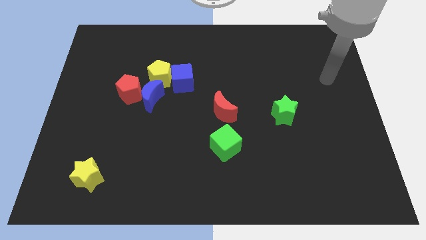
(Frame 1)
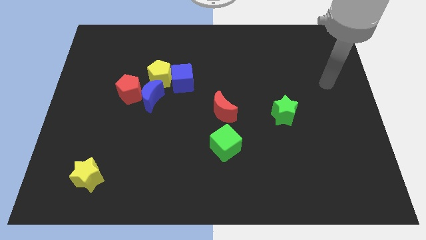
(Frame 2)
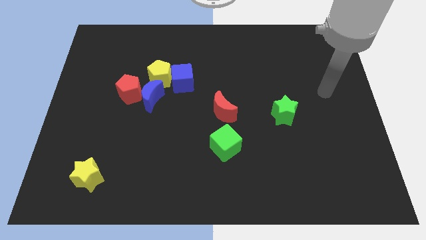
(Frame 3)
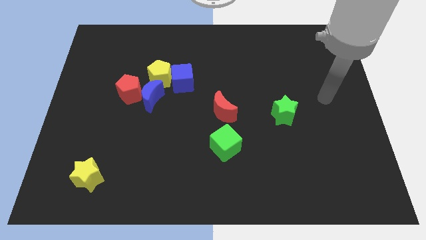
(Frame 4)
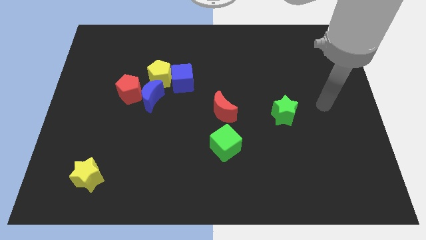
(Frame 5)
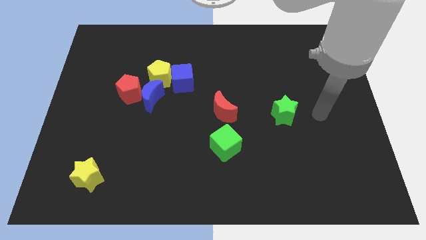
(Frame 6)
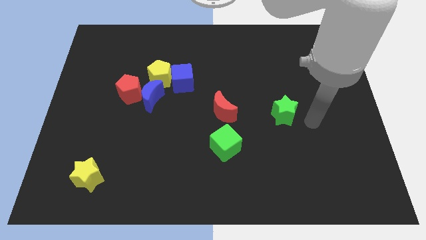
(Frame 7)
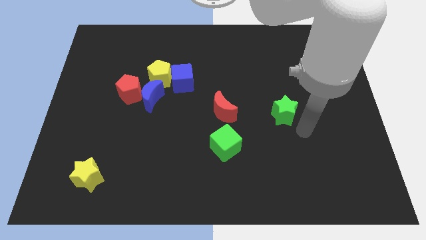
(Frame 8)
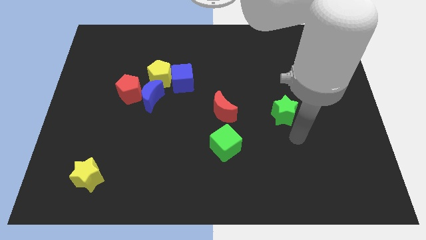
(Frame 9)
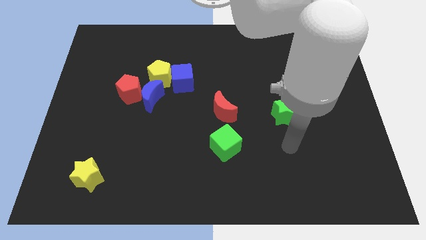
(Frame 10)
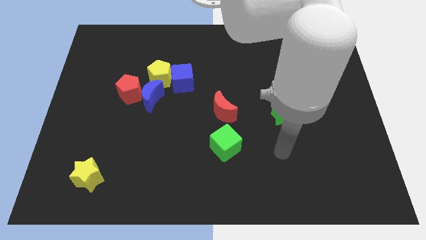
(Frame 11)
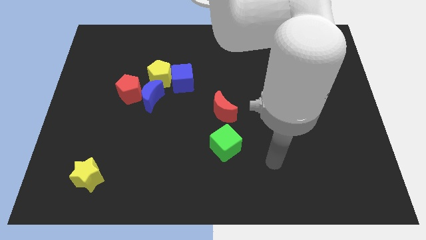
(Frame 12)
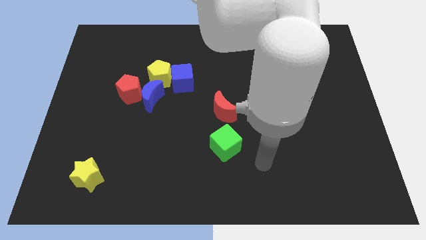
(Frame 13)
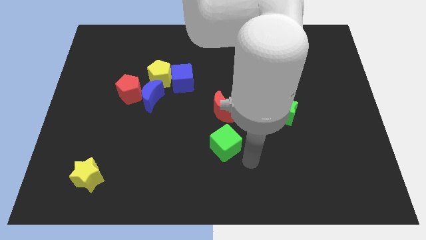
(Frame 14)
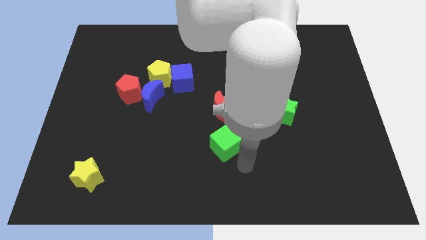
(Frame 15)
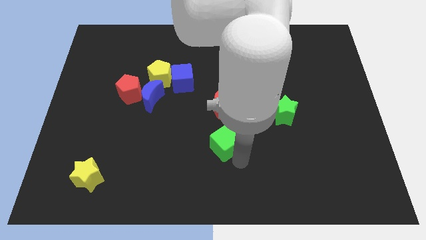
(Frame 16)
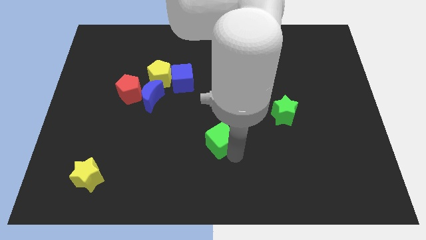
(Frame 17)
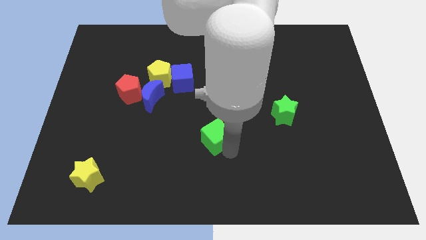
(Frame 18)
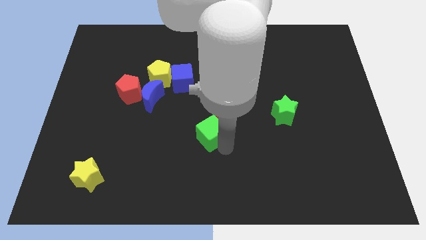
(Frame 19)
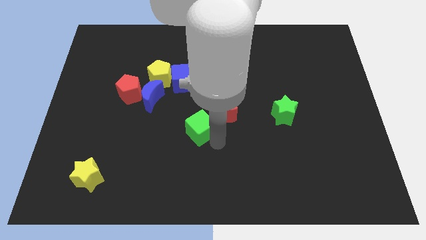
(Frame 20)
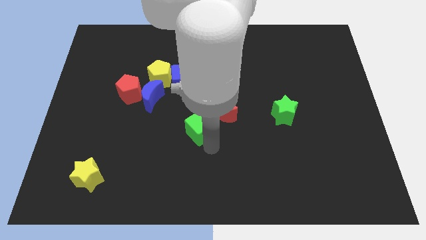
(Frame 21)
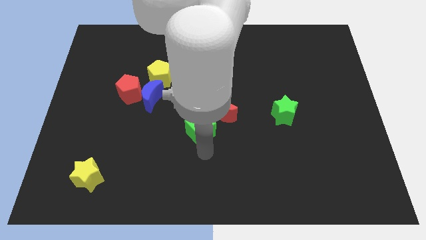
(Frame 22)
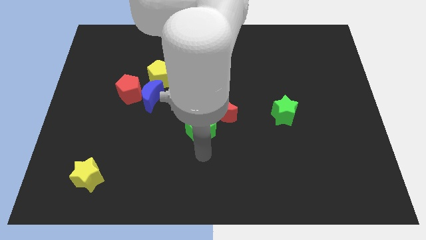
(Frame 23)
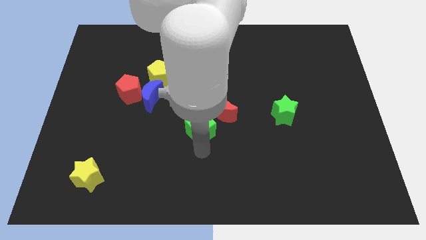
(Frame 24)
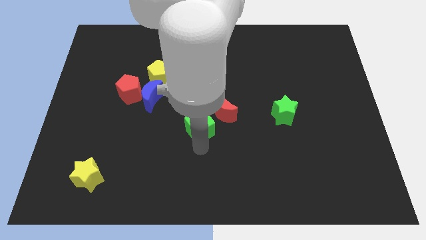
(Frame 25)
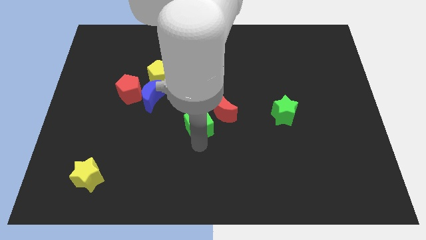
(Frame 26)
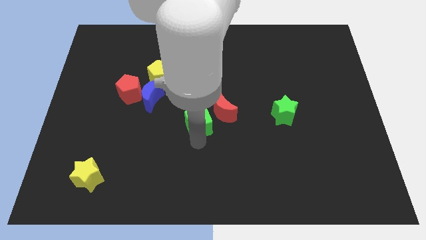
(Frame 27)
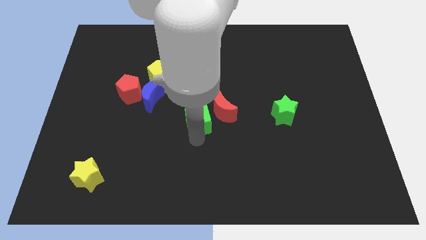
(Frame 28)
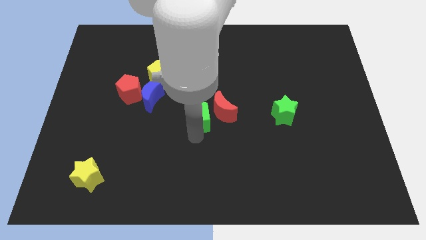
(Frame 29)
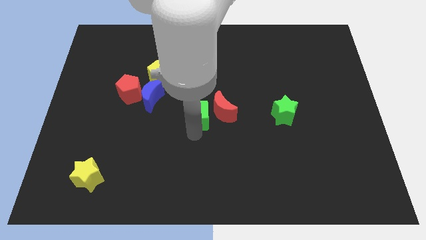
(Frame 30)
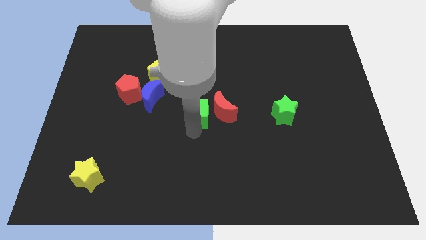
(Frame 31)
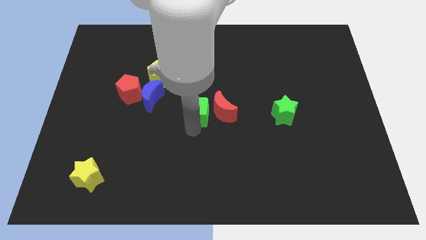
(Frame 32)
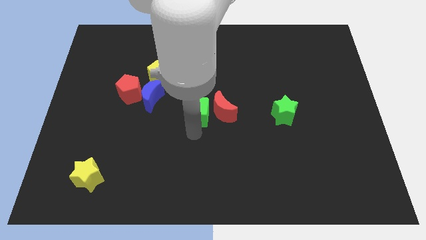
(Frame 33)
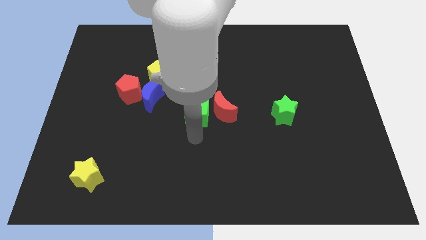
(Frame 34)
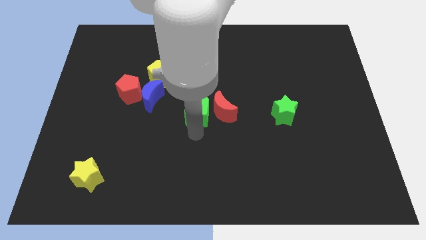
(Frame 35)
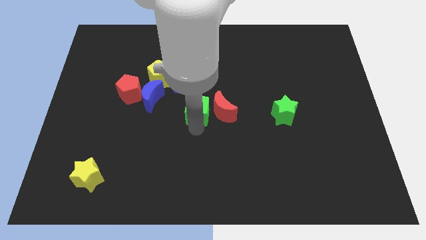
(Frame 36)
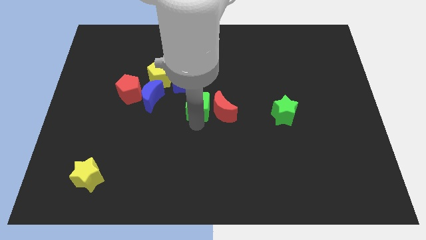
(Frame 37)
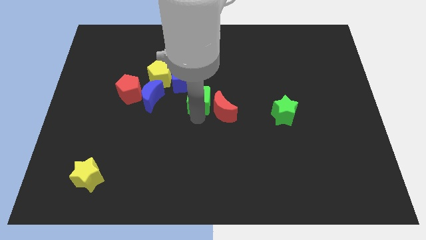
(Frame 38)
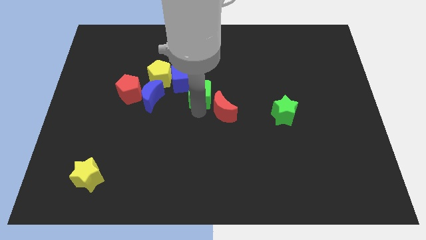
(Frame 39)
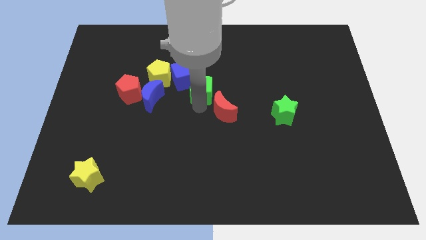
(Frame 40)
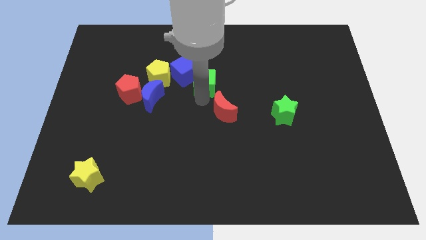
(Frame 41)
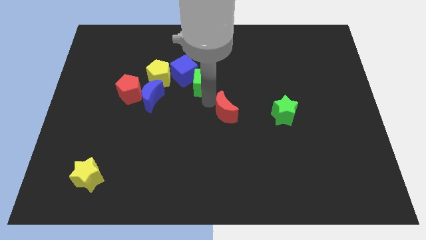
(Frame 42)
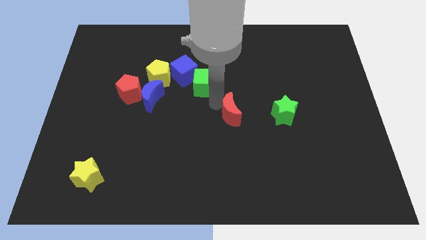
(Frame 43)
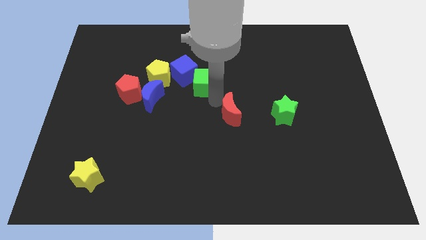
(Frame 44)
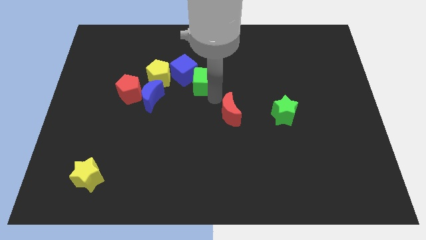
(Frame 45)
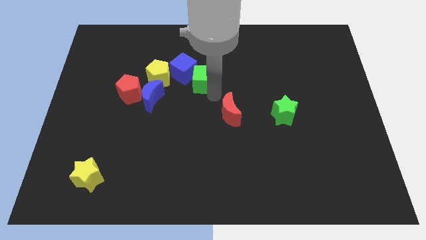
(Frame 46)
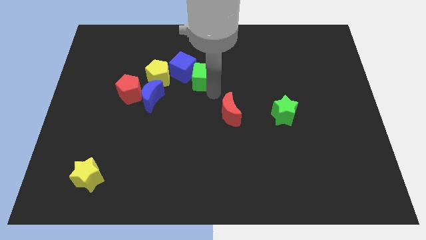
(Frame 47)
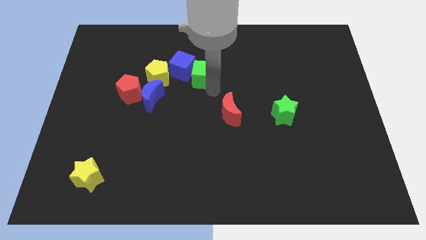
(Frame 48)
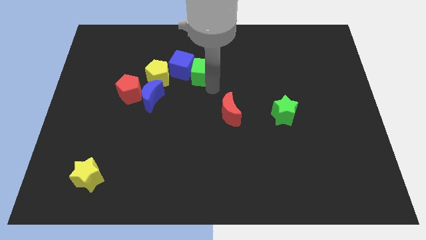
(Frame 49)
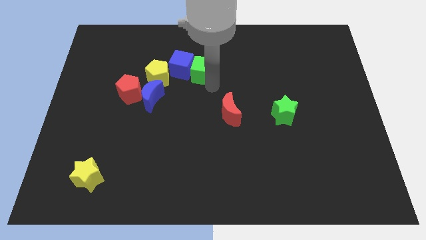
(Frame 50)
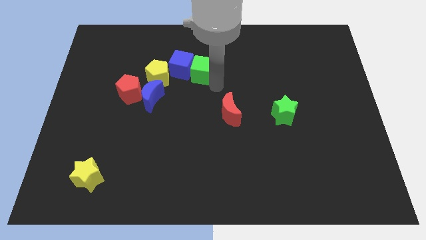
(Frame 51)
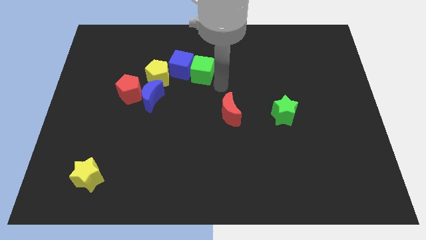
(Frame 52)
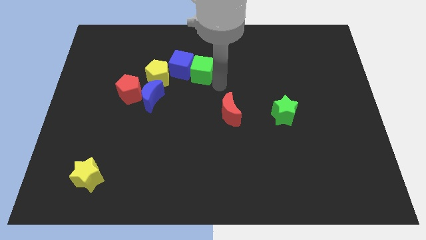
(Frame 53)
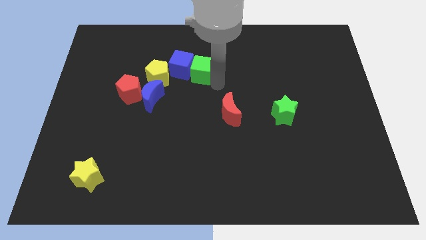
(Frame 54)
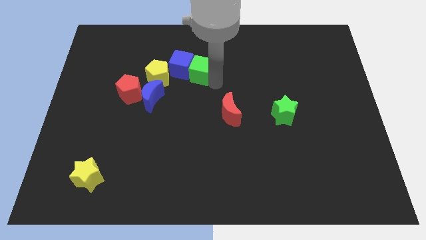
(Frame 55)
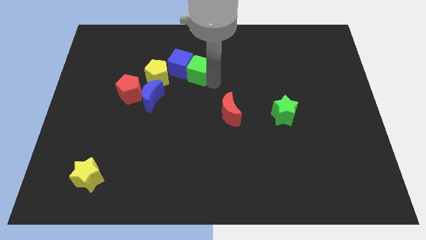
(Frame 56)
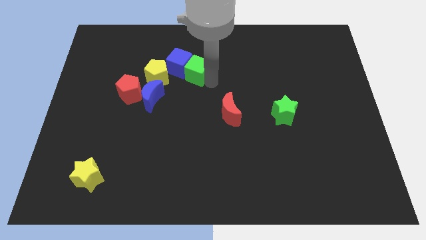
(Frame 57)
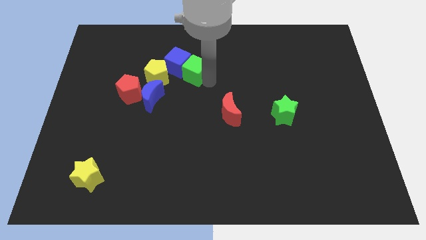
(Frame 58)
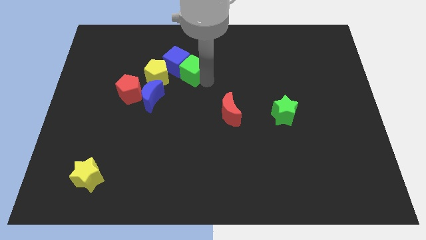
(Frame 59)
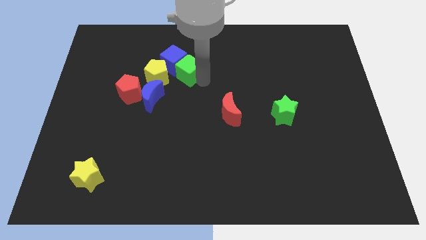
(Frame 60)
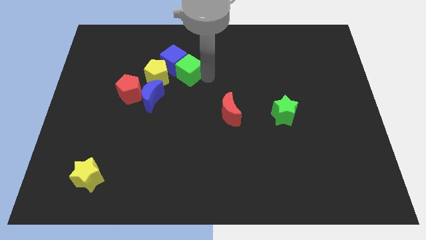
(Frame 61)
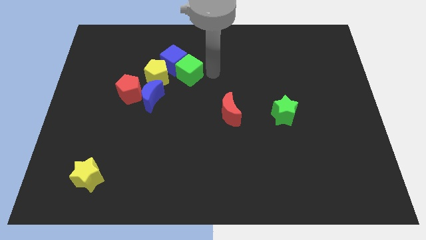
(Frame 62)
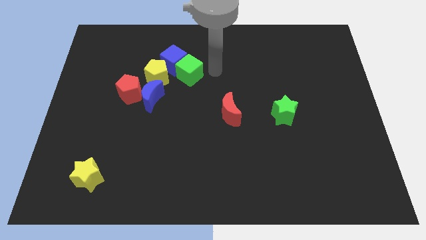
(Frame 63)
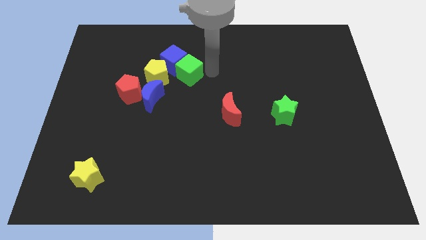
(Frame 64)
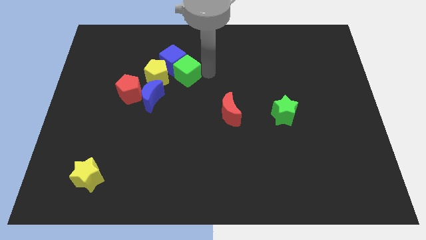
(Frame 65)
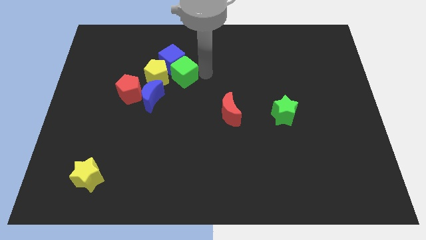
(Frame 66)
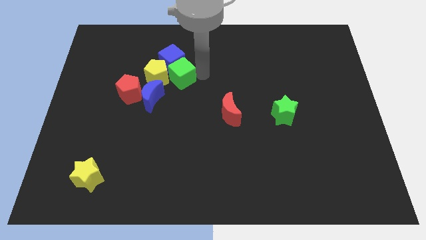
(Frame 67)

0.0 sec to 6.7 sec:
move the green cube next to the yellow pentagon
